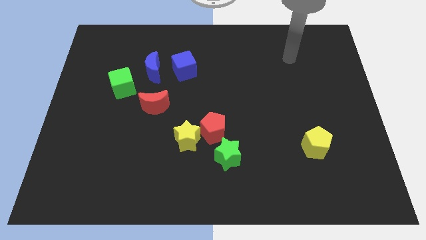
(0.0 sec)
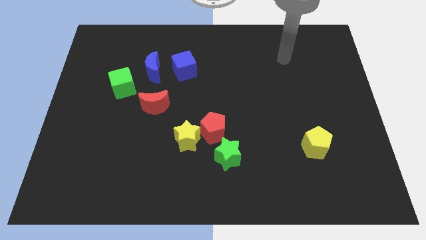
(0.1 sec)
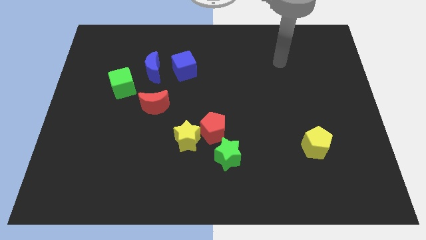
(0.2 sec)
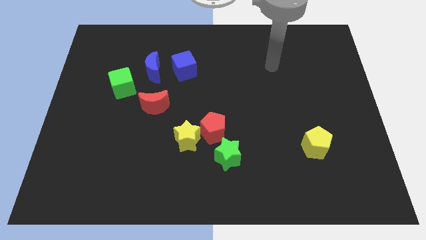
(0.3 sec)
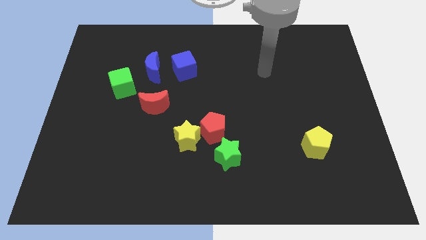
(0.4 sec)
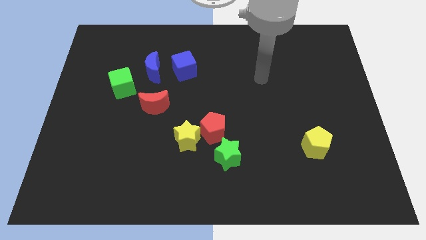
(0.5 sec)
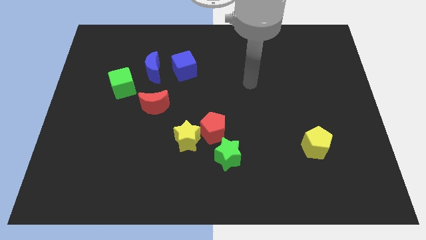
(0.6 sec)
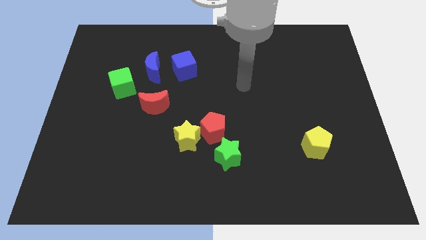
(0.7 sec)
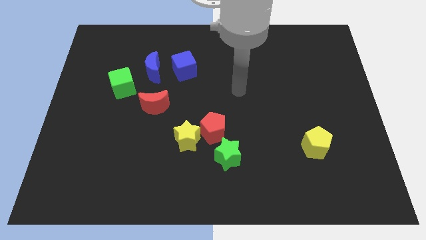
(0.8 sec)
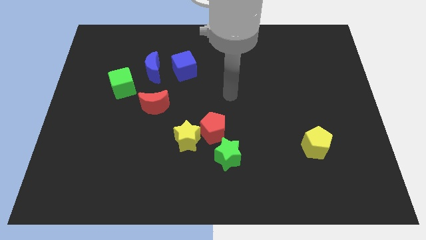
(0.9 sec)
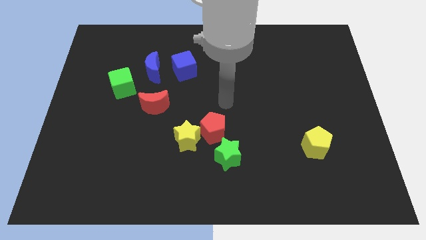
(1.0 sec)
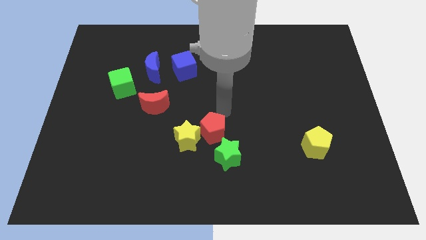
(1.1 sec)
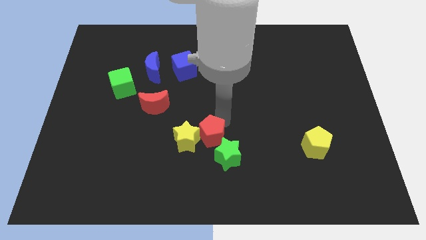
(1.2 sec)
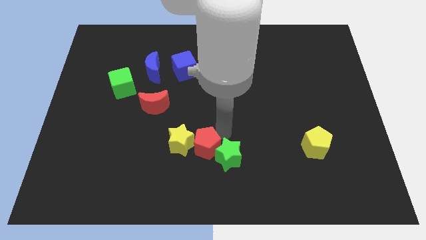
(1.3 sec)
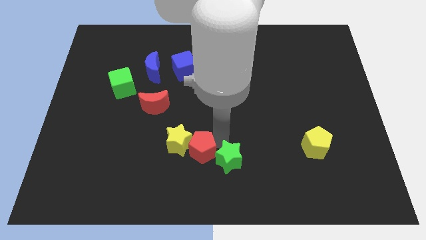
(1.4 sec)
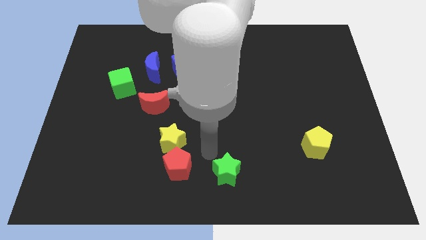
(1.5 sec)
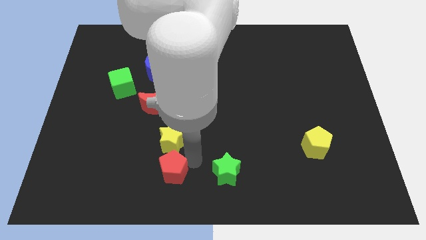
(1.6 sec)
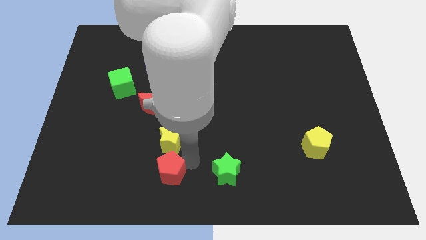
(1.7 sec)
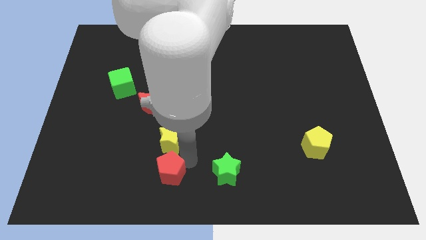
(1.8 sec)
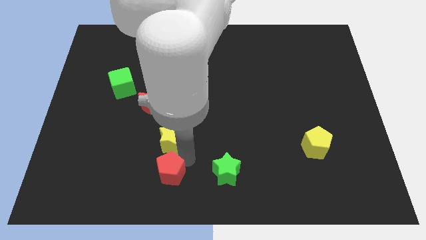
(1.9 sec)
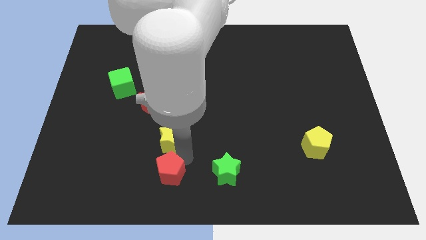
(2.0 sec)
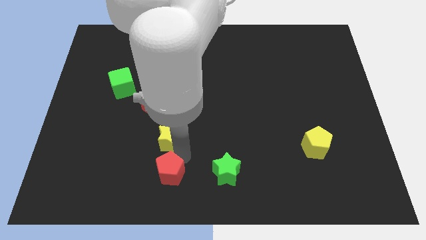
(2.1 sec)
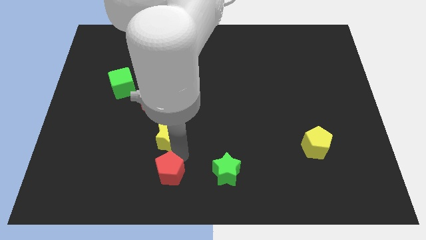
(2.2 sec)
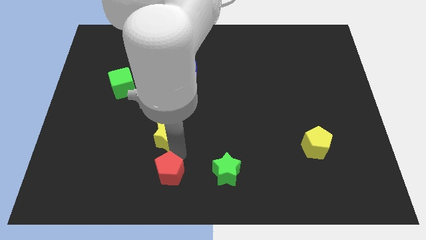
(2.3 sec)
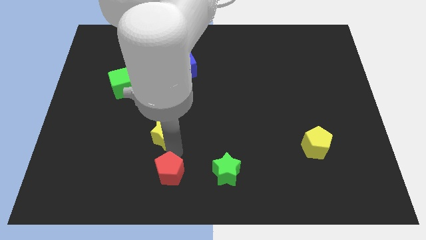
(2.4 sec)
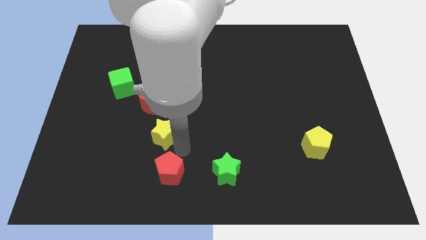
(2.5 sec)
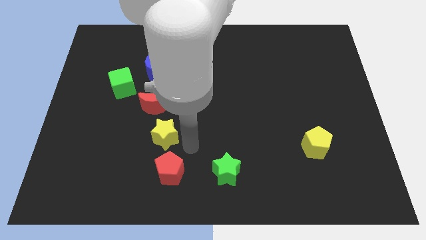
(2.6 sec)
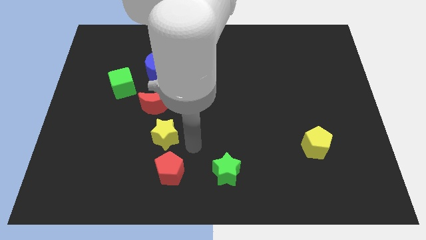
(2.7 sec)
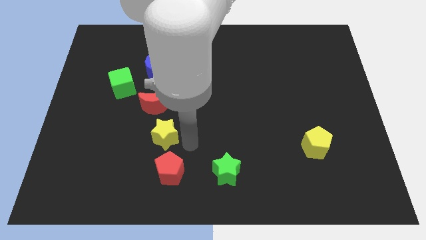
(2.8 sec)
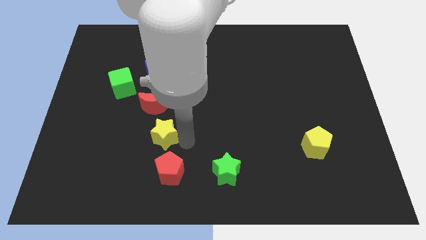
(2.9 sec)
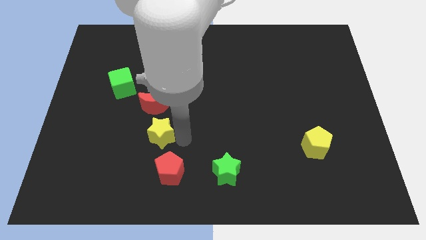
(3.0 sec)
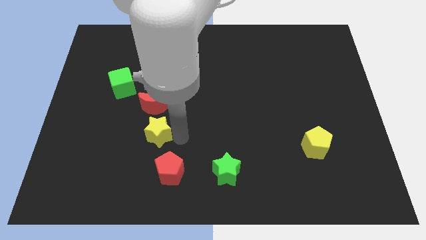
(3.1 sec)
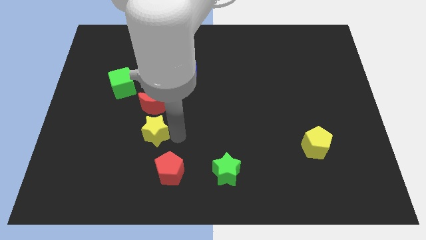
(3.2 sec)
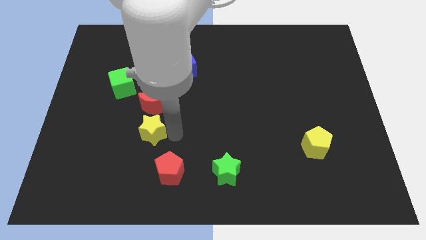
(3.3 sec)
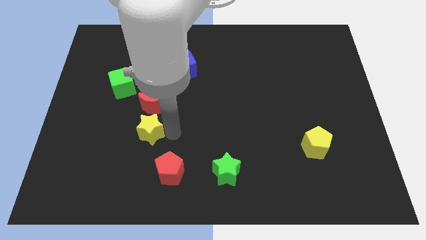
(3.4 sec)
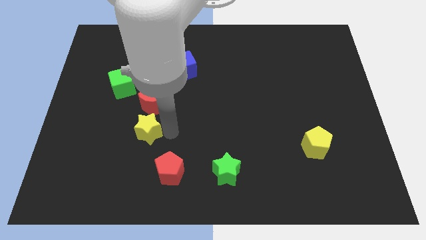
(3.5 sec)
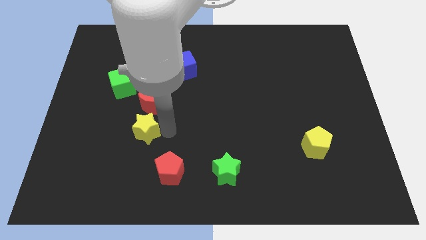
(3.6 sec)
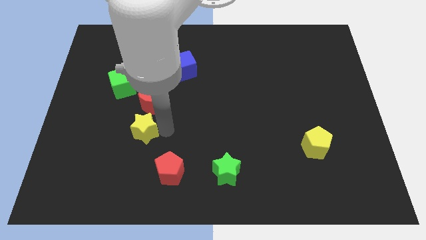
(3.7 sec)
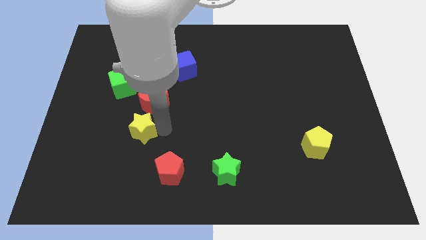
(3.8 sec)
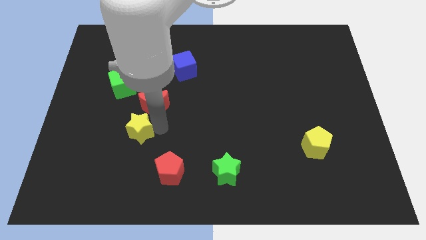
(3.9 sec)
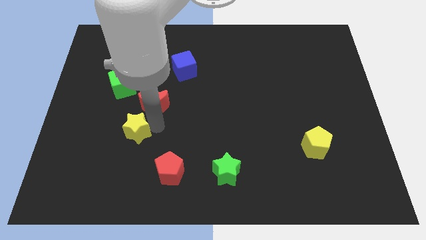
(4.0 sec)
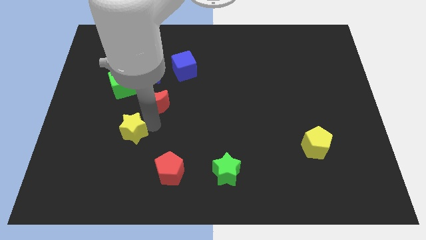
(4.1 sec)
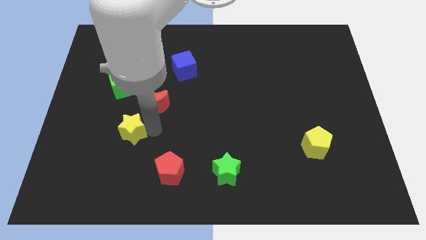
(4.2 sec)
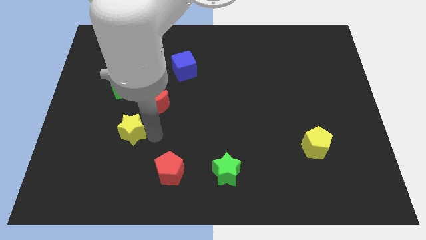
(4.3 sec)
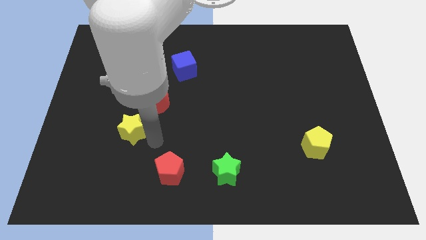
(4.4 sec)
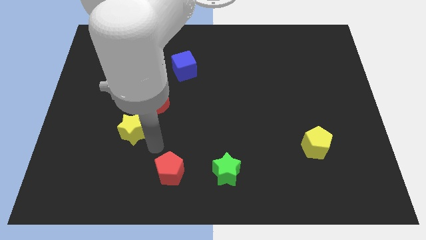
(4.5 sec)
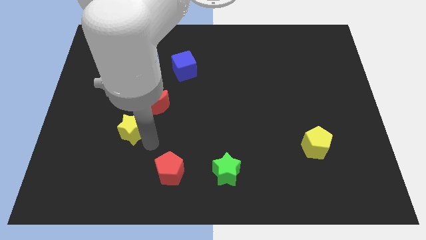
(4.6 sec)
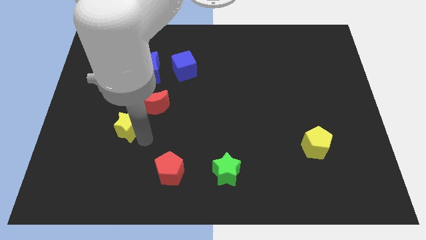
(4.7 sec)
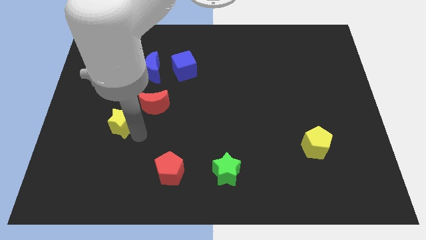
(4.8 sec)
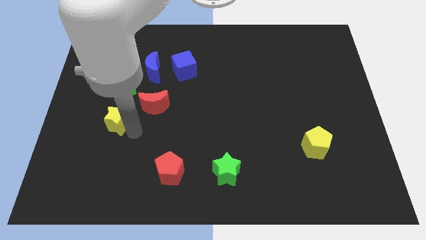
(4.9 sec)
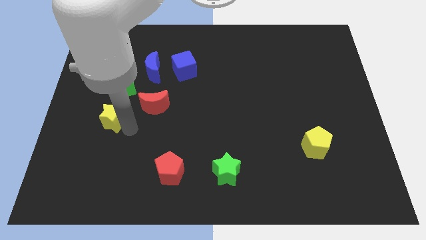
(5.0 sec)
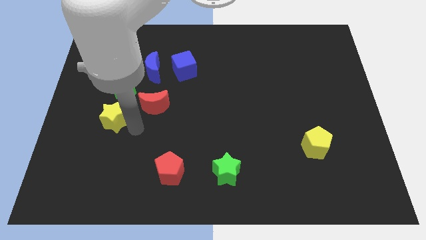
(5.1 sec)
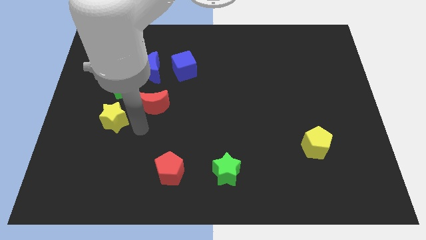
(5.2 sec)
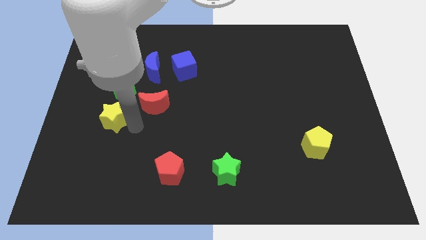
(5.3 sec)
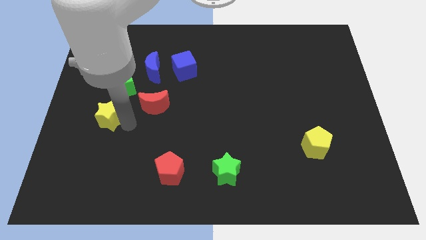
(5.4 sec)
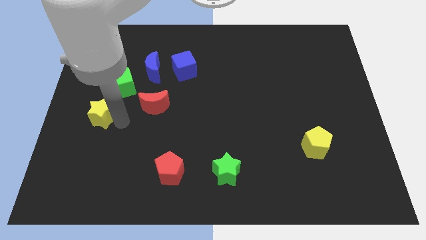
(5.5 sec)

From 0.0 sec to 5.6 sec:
move the yellow star to the center left

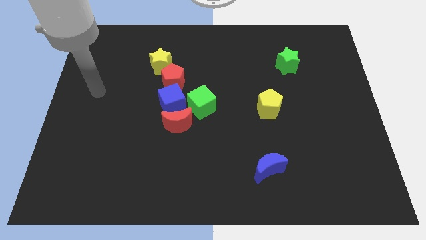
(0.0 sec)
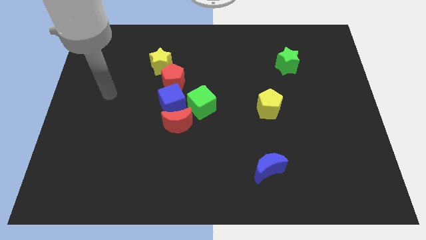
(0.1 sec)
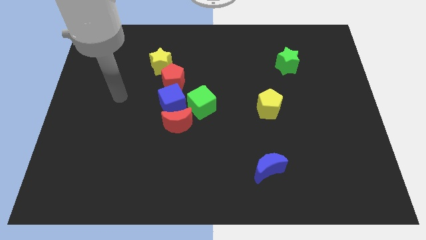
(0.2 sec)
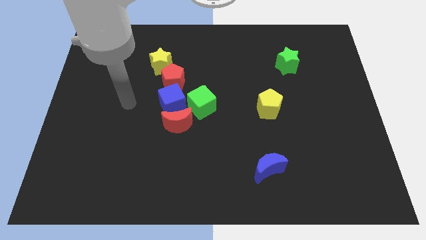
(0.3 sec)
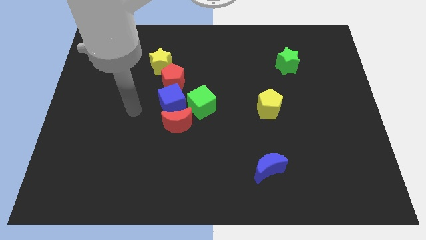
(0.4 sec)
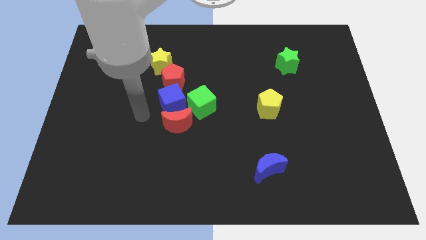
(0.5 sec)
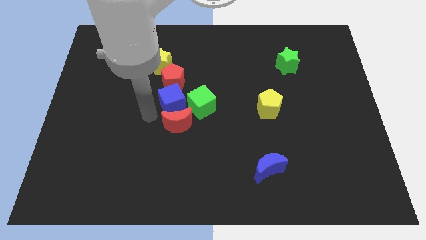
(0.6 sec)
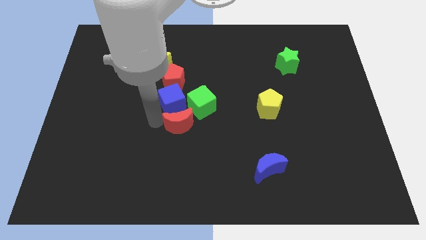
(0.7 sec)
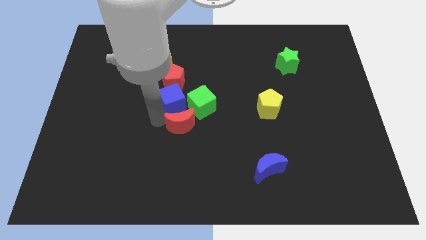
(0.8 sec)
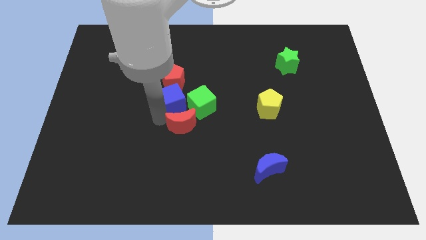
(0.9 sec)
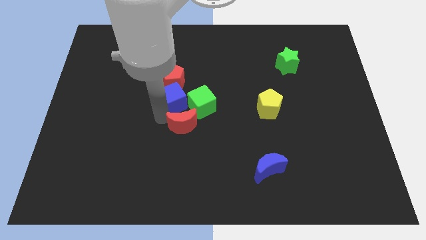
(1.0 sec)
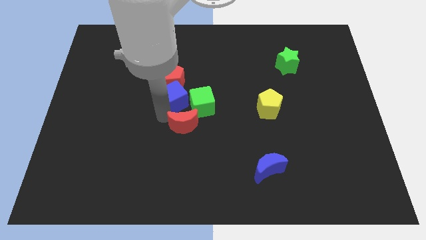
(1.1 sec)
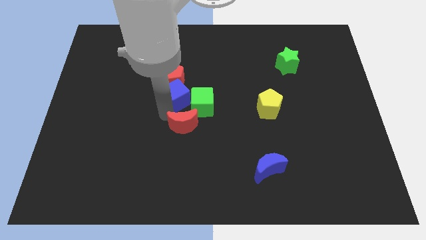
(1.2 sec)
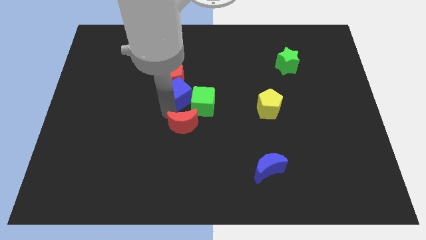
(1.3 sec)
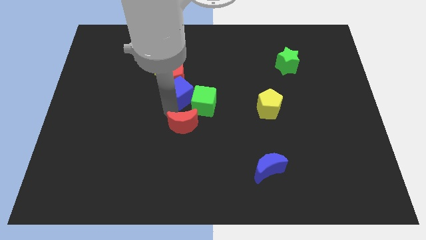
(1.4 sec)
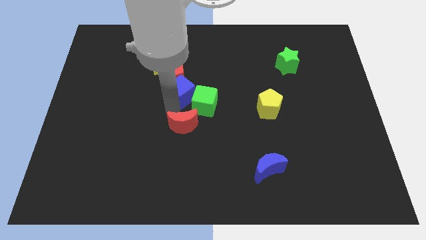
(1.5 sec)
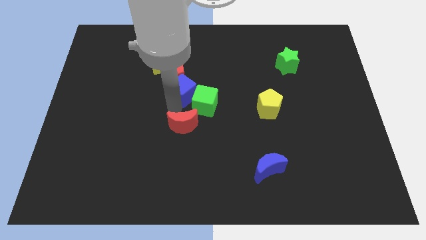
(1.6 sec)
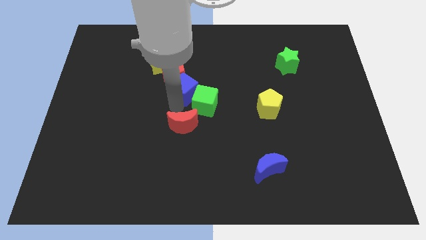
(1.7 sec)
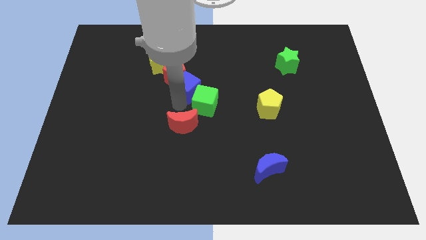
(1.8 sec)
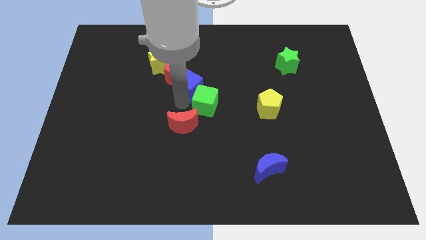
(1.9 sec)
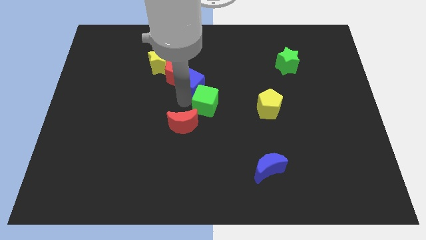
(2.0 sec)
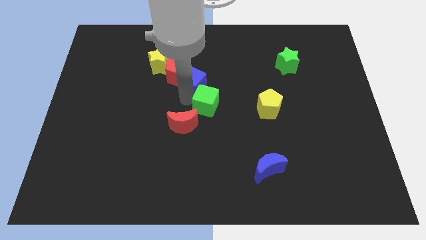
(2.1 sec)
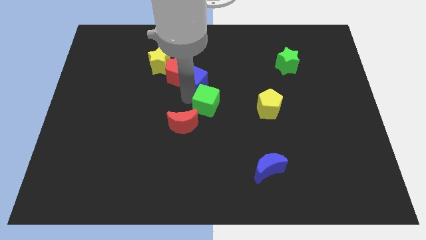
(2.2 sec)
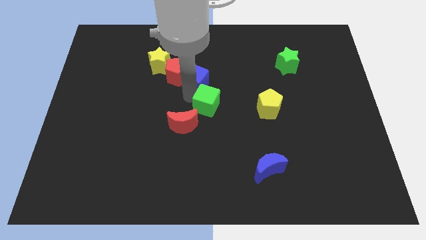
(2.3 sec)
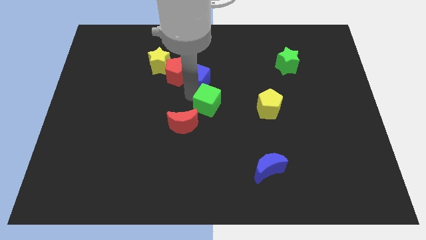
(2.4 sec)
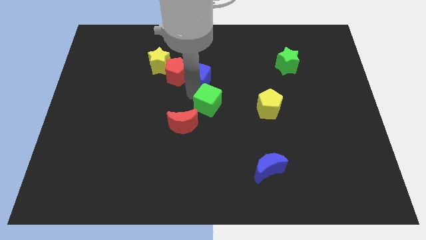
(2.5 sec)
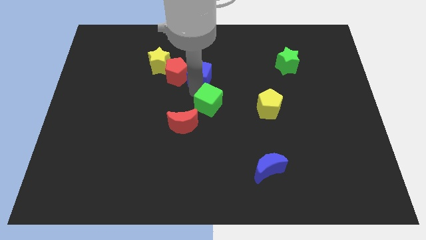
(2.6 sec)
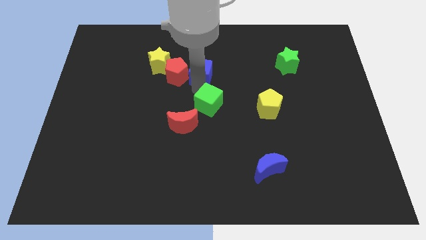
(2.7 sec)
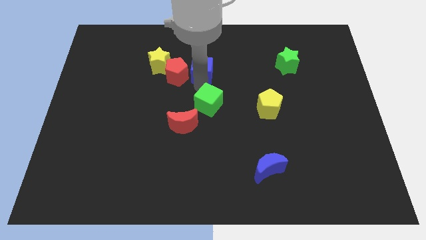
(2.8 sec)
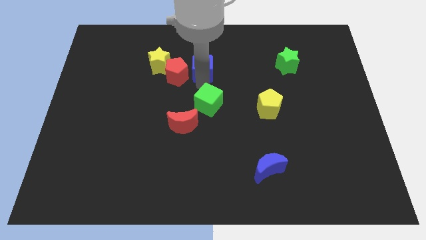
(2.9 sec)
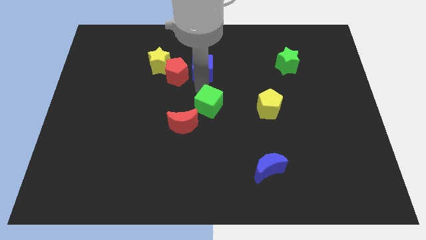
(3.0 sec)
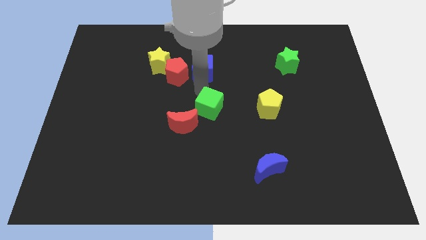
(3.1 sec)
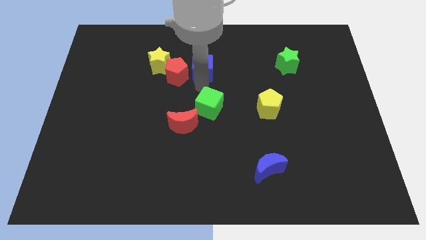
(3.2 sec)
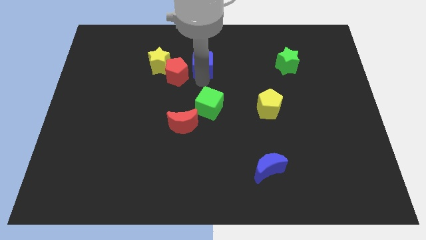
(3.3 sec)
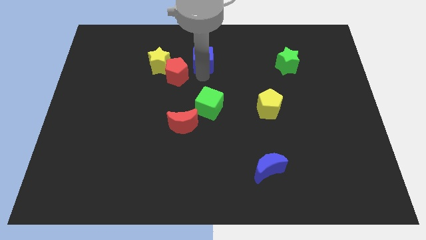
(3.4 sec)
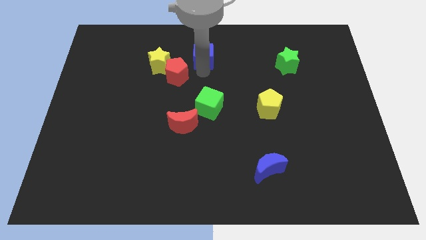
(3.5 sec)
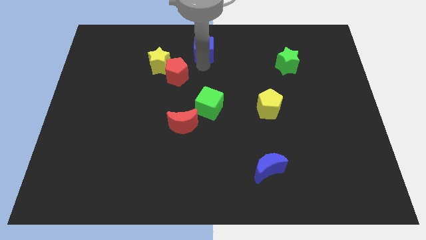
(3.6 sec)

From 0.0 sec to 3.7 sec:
slide the blue cube to the towards your base
